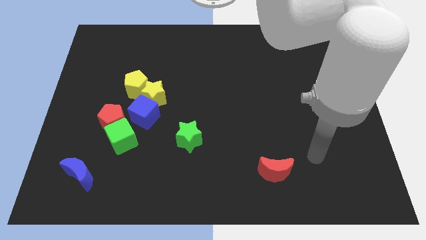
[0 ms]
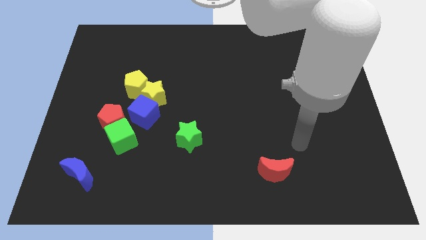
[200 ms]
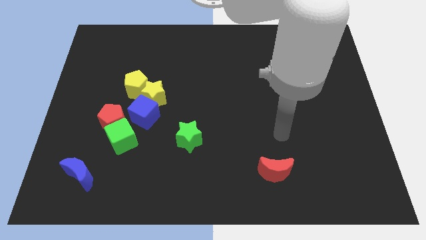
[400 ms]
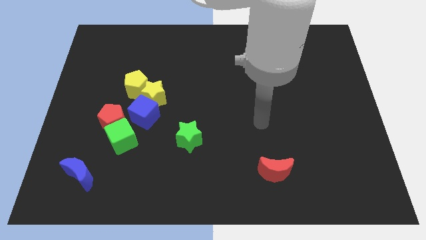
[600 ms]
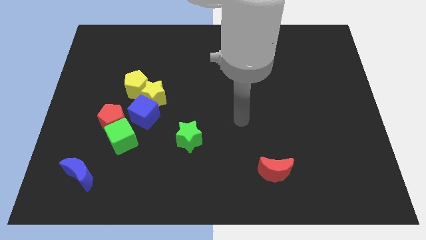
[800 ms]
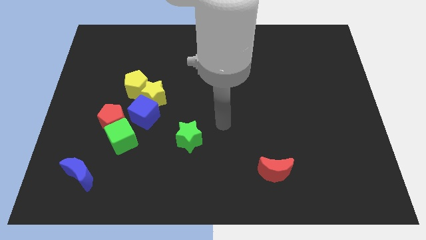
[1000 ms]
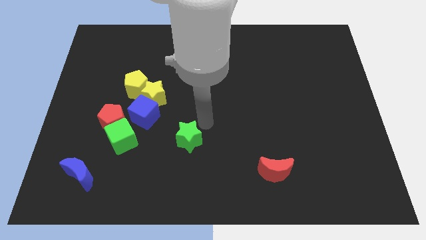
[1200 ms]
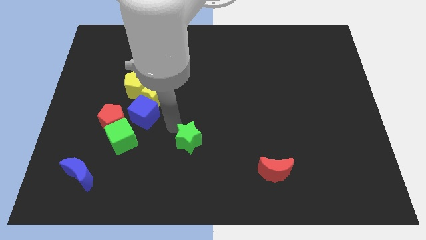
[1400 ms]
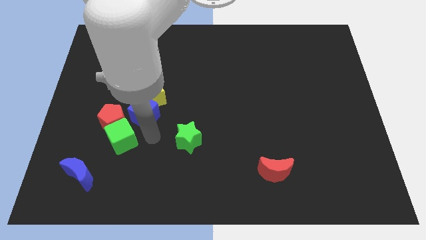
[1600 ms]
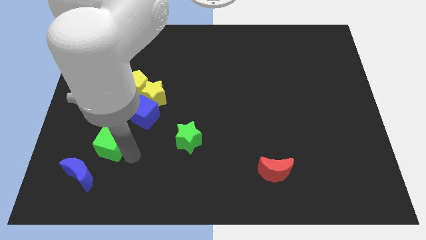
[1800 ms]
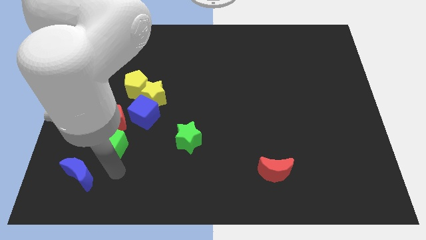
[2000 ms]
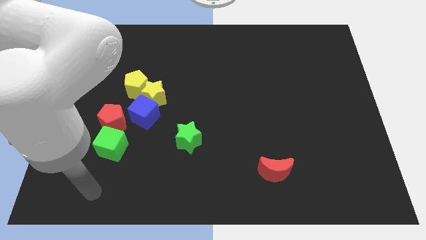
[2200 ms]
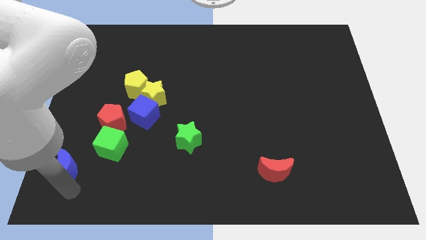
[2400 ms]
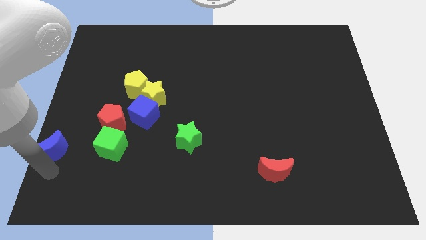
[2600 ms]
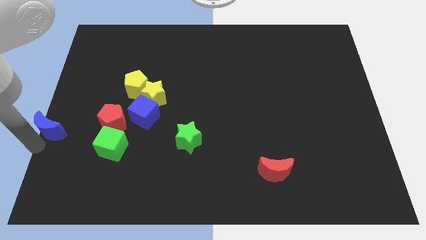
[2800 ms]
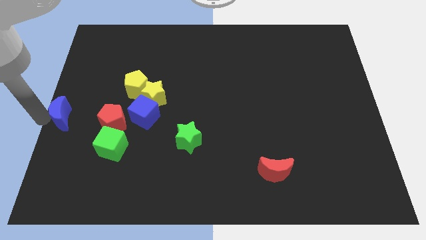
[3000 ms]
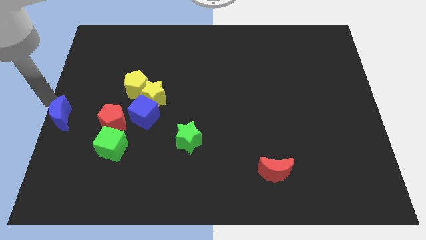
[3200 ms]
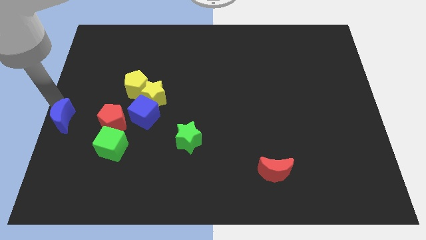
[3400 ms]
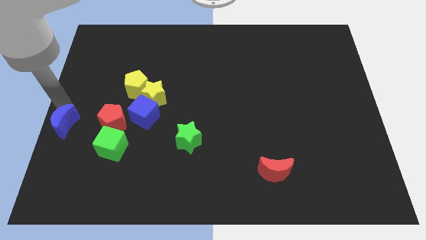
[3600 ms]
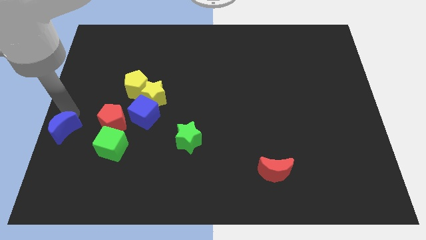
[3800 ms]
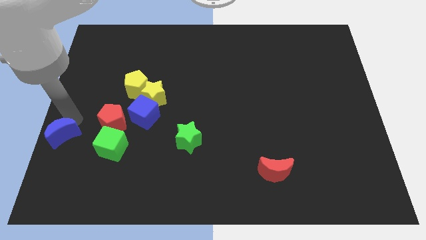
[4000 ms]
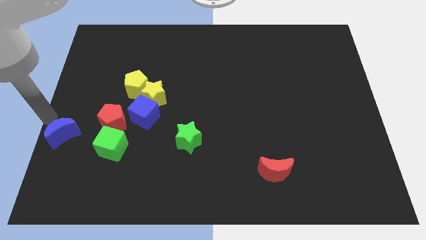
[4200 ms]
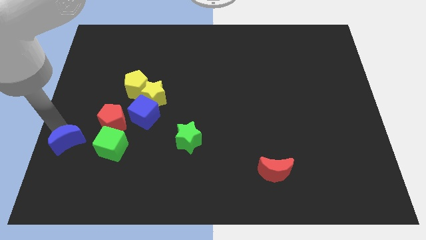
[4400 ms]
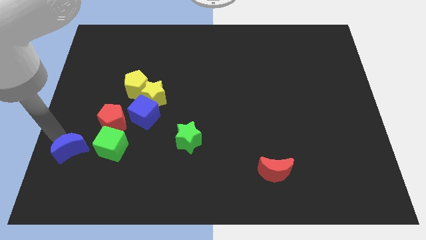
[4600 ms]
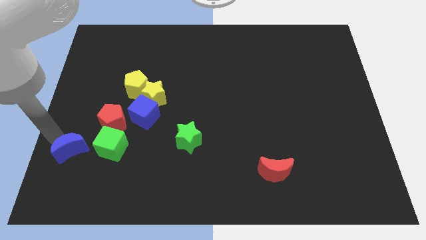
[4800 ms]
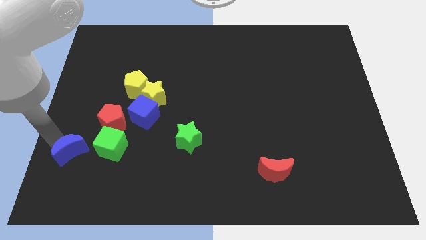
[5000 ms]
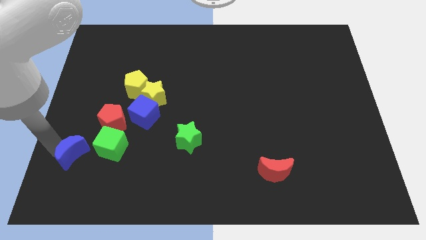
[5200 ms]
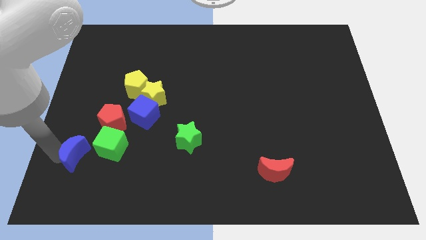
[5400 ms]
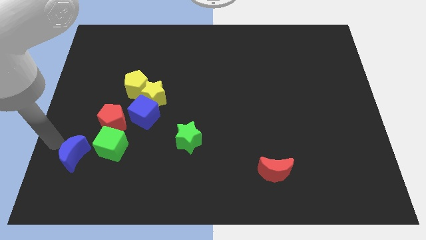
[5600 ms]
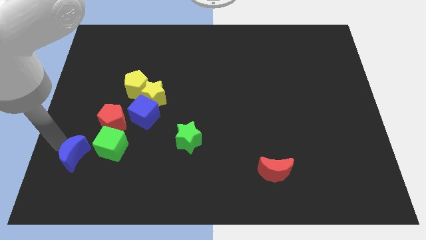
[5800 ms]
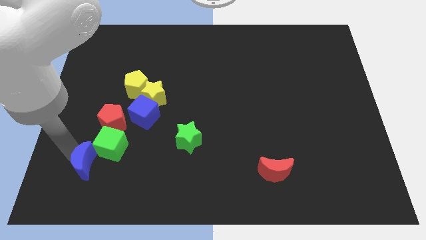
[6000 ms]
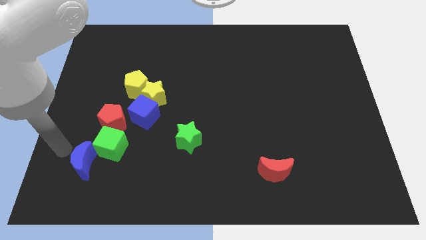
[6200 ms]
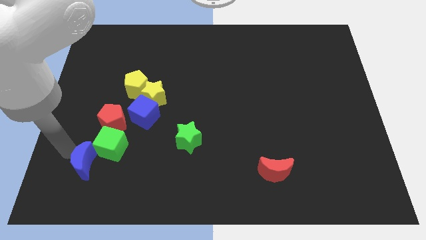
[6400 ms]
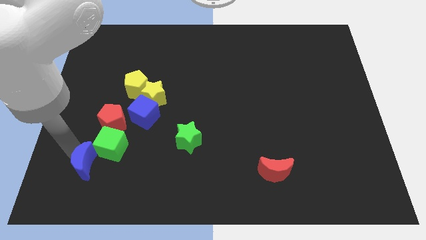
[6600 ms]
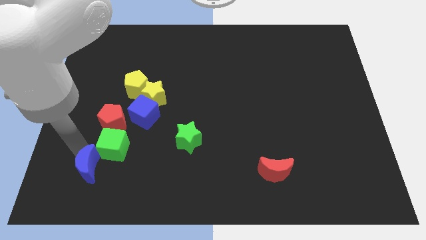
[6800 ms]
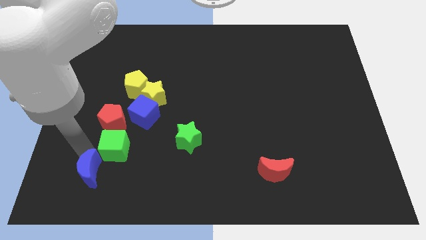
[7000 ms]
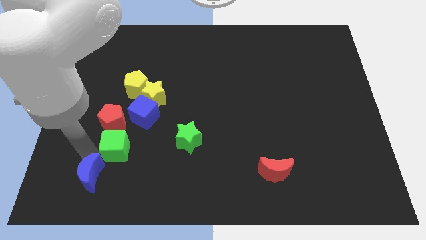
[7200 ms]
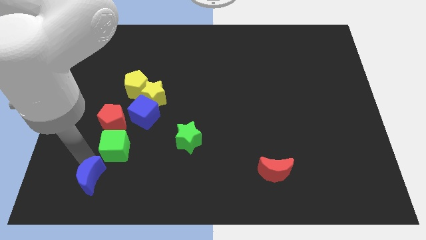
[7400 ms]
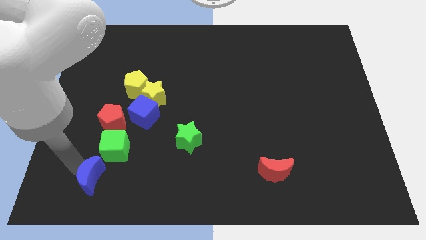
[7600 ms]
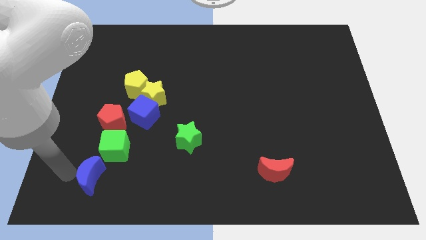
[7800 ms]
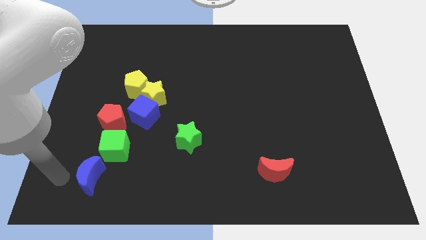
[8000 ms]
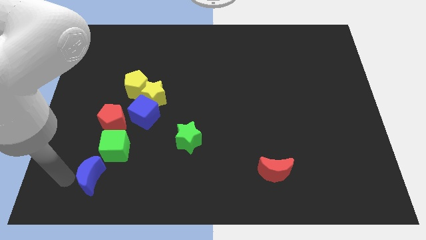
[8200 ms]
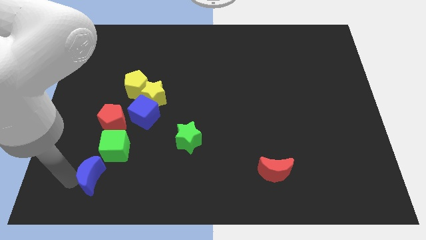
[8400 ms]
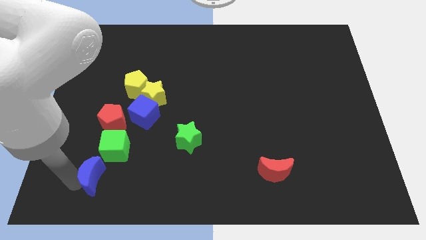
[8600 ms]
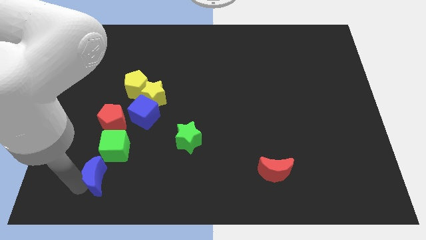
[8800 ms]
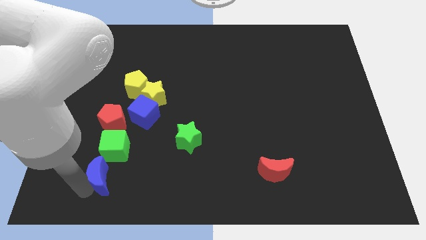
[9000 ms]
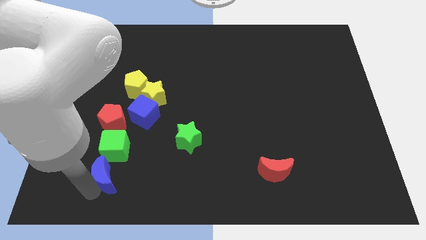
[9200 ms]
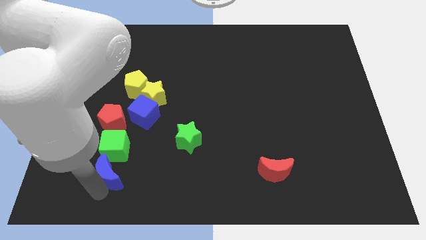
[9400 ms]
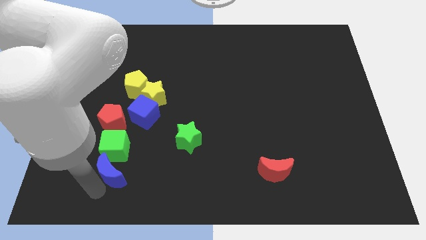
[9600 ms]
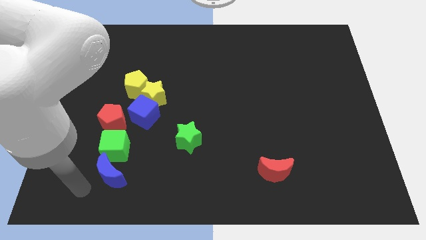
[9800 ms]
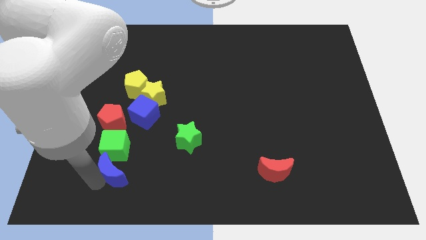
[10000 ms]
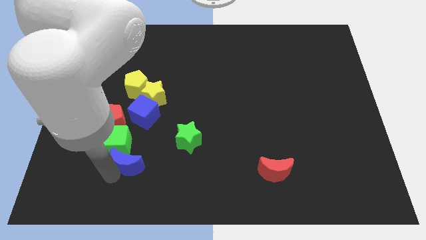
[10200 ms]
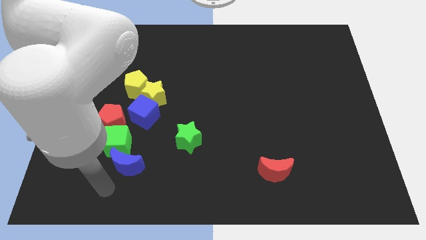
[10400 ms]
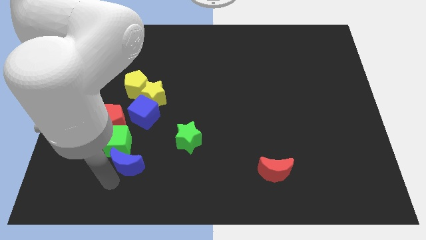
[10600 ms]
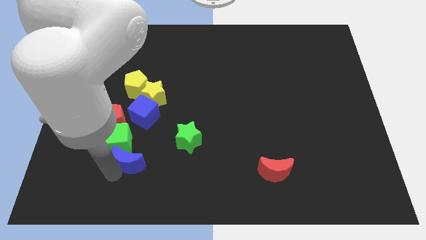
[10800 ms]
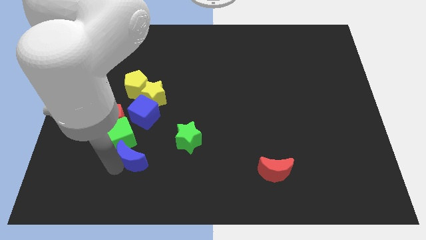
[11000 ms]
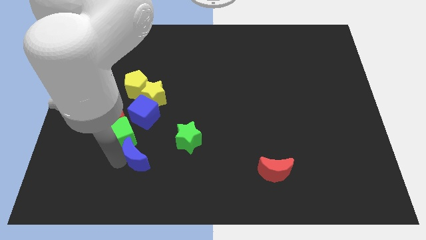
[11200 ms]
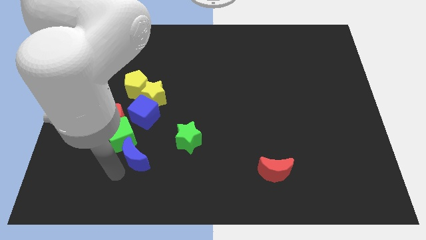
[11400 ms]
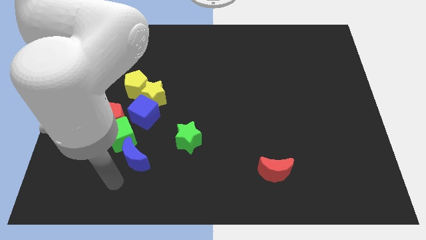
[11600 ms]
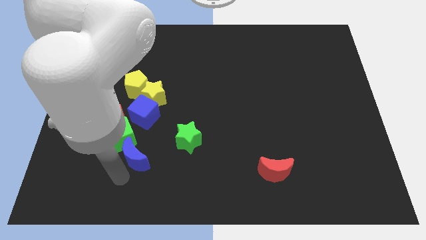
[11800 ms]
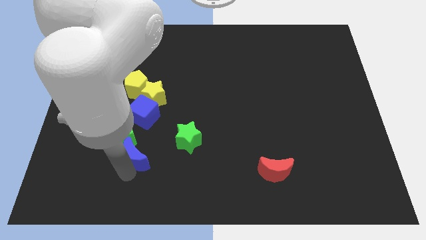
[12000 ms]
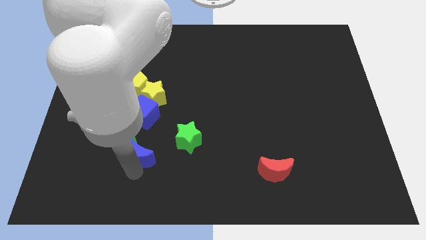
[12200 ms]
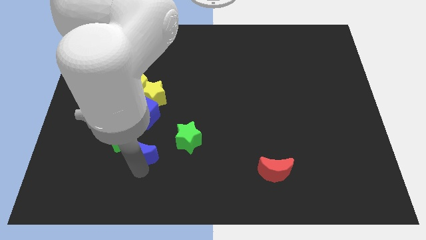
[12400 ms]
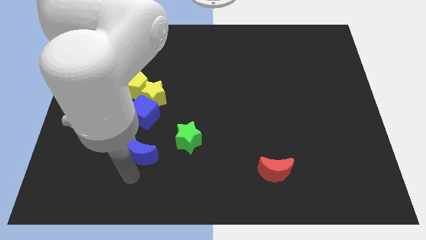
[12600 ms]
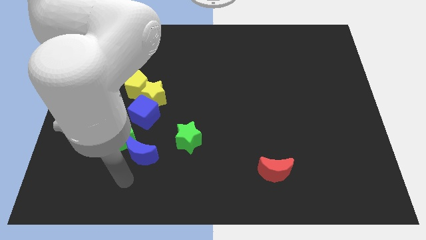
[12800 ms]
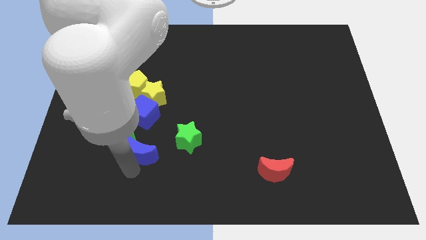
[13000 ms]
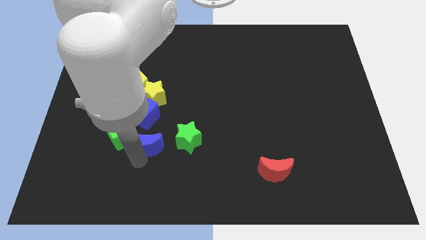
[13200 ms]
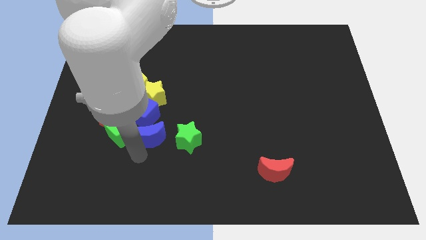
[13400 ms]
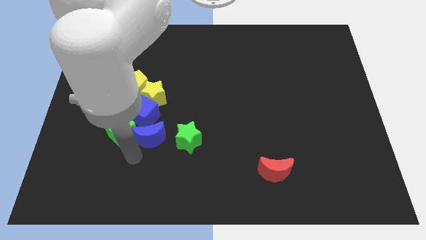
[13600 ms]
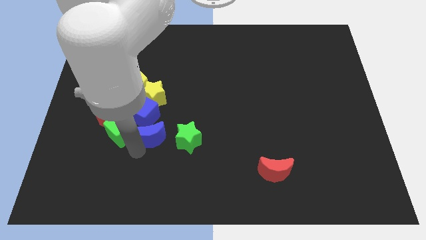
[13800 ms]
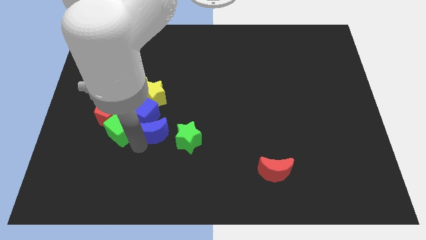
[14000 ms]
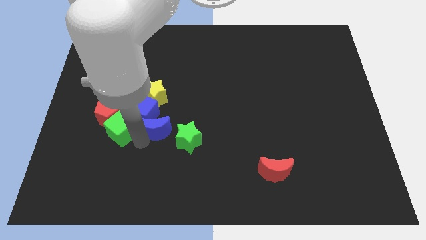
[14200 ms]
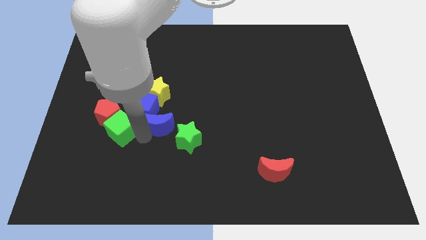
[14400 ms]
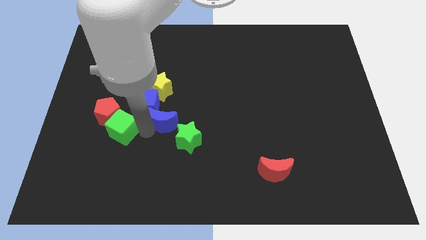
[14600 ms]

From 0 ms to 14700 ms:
slide the blue moon diagonally upwards and right

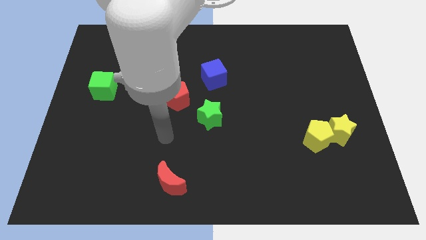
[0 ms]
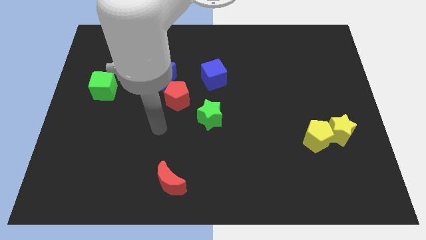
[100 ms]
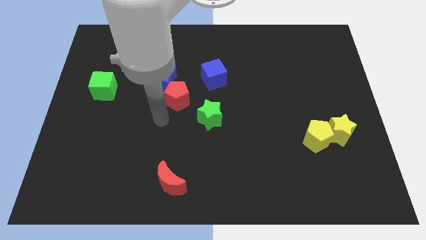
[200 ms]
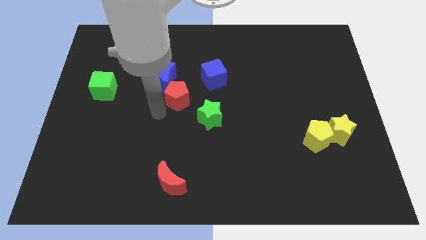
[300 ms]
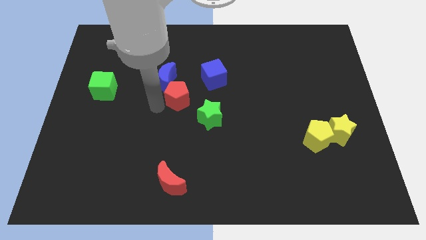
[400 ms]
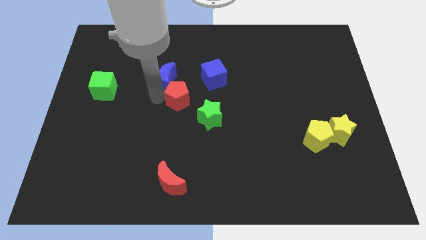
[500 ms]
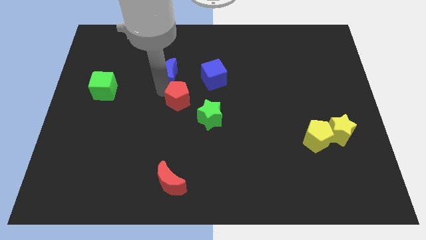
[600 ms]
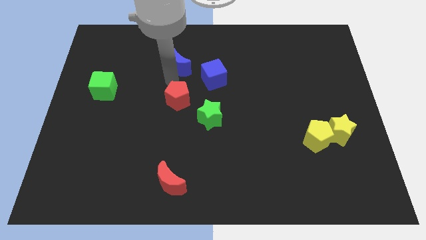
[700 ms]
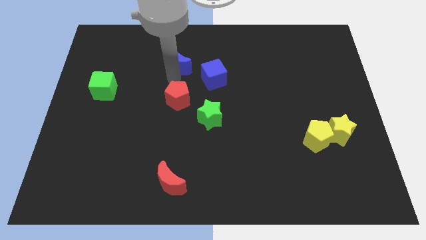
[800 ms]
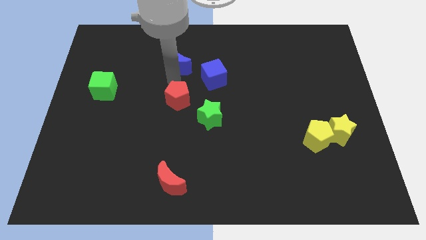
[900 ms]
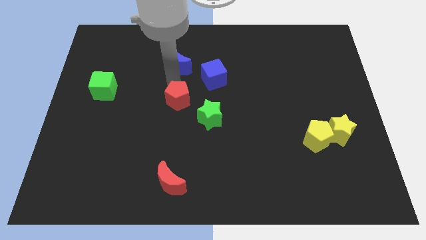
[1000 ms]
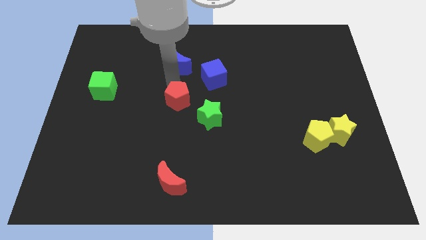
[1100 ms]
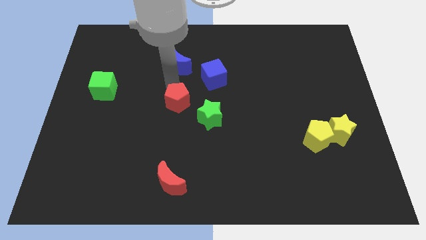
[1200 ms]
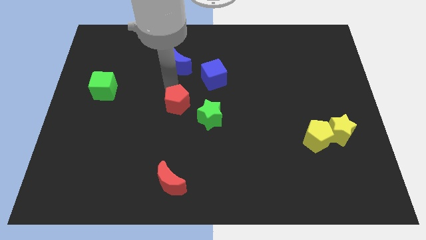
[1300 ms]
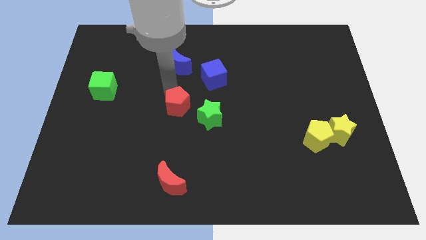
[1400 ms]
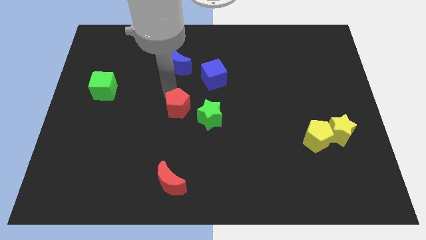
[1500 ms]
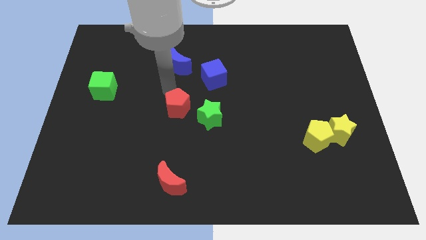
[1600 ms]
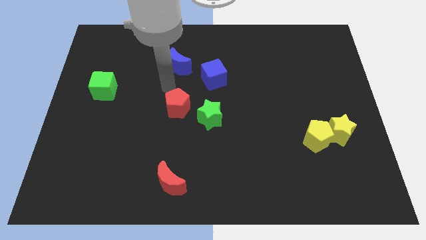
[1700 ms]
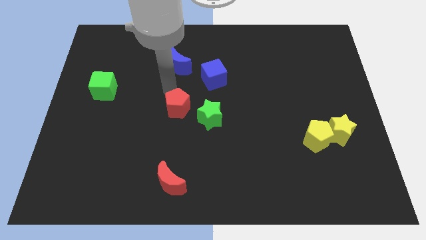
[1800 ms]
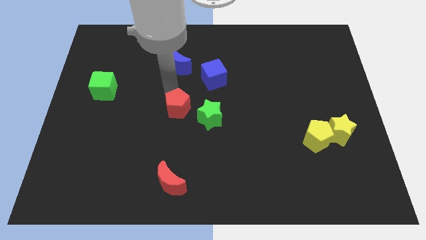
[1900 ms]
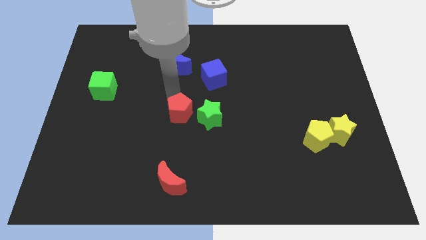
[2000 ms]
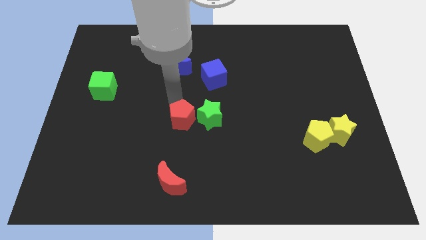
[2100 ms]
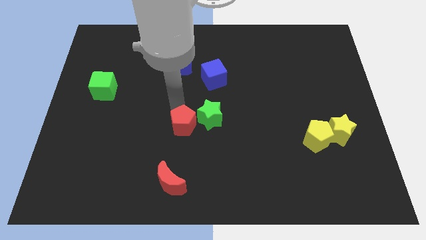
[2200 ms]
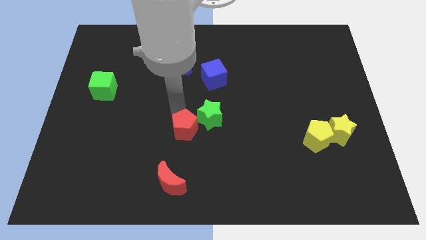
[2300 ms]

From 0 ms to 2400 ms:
slide the red pentagon down and right a little bit
